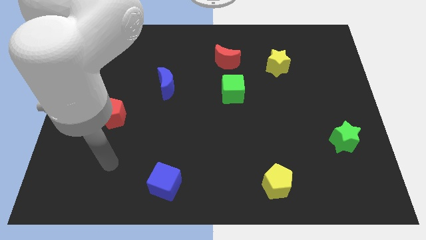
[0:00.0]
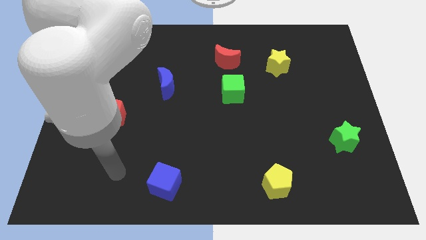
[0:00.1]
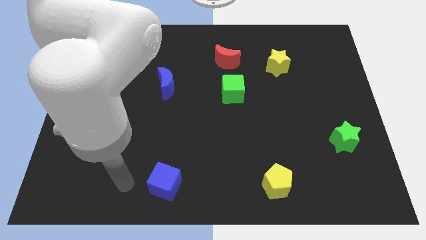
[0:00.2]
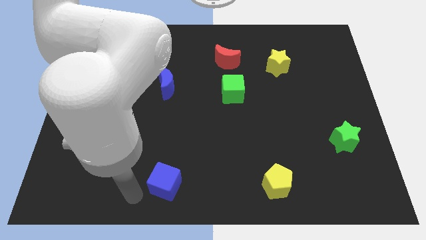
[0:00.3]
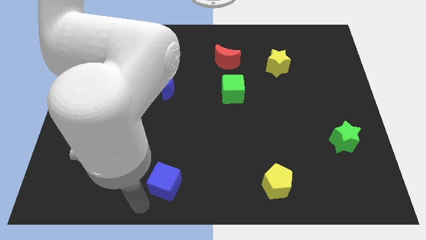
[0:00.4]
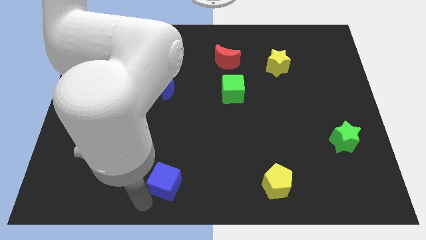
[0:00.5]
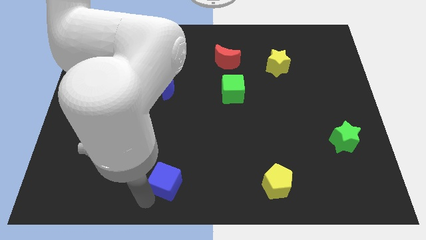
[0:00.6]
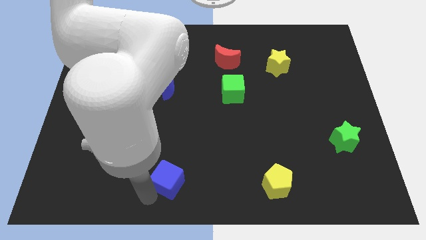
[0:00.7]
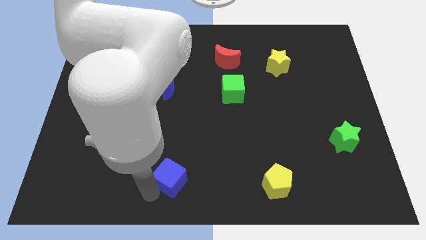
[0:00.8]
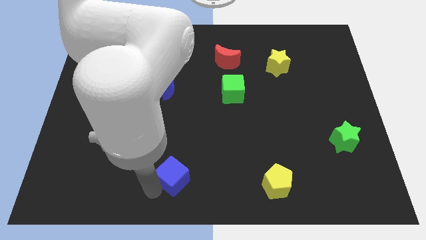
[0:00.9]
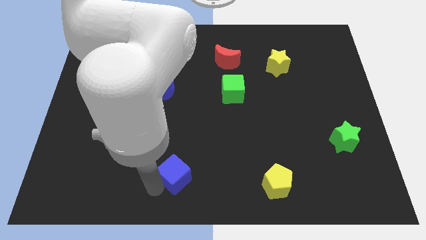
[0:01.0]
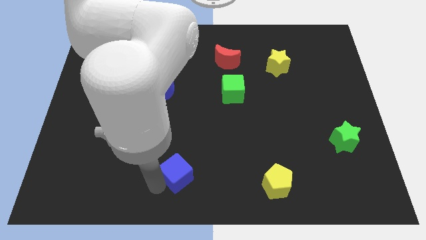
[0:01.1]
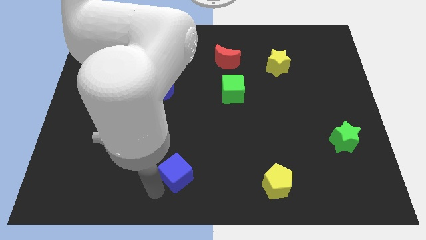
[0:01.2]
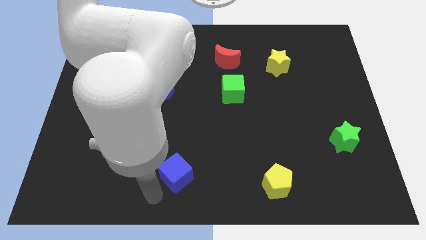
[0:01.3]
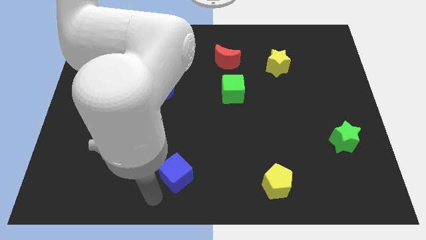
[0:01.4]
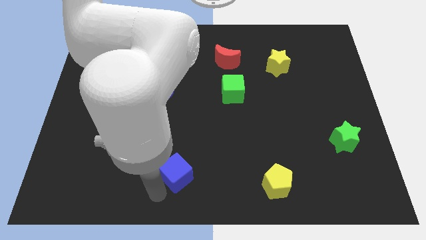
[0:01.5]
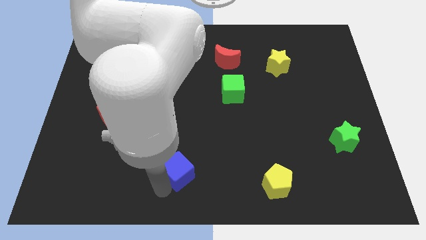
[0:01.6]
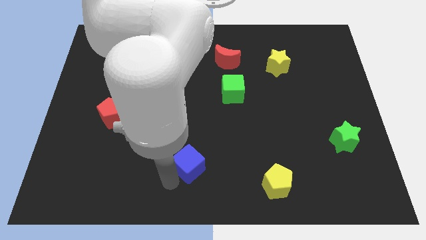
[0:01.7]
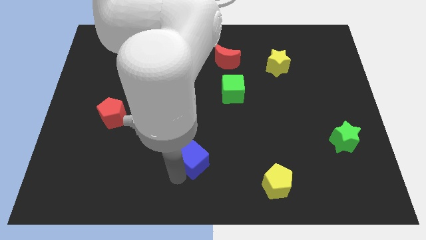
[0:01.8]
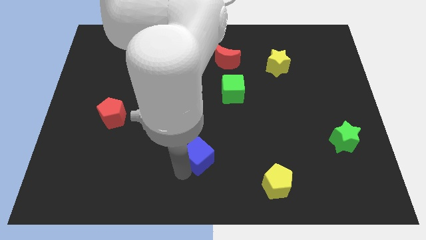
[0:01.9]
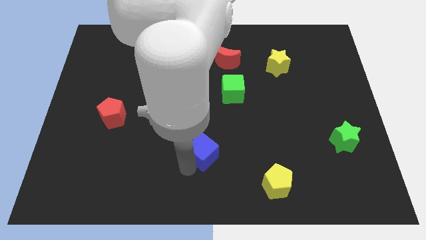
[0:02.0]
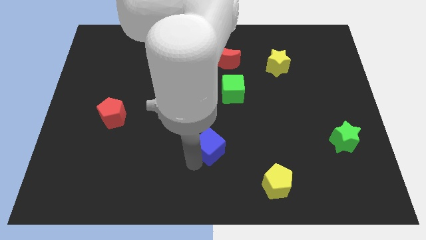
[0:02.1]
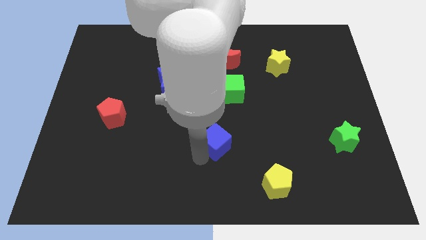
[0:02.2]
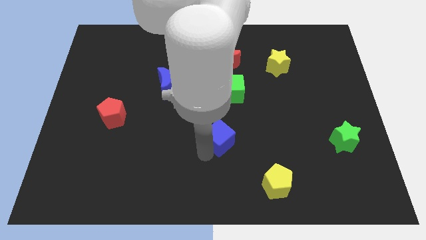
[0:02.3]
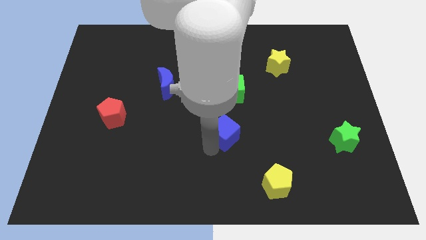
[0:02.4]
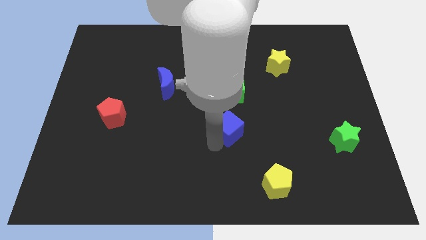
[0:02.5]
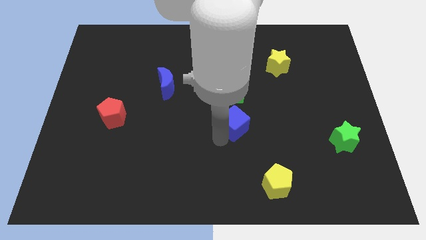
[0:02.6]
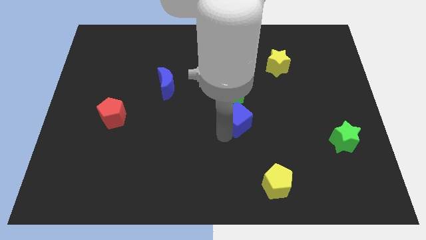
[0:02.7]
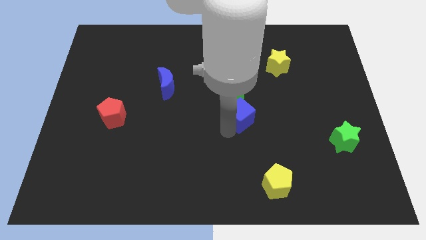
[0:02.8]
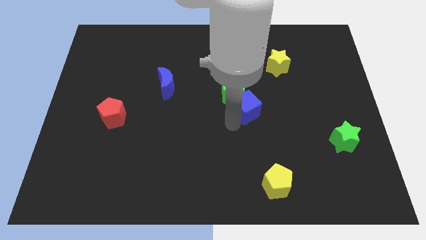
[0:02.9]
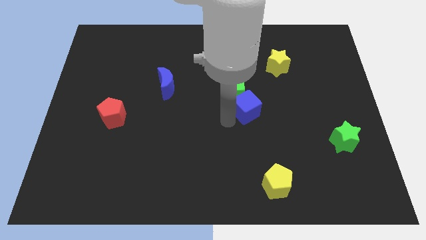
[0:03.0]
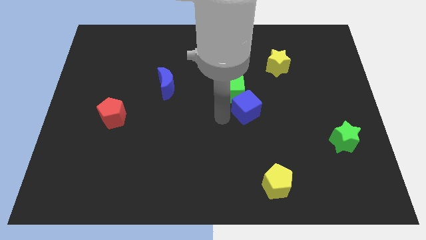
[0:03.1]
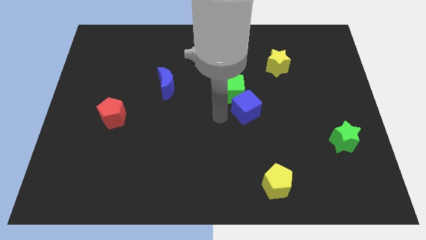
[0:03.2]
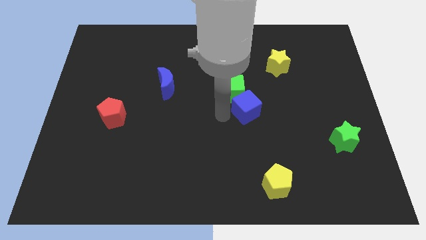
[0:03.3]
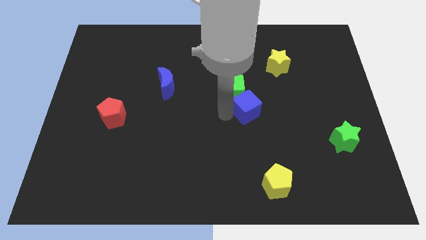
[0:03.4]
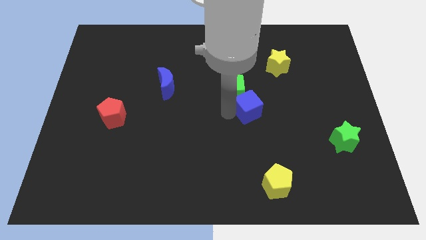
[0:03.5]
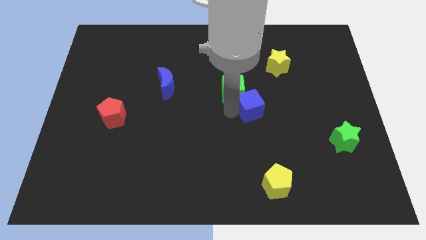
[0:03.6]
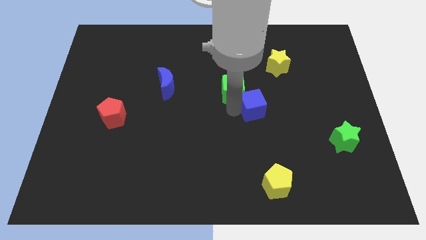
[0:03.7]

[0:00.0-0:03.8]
push the blue cube right of the green cube

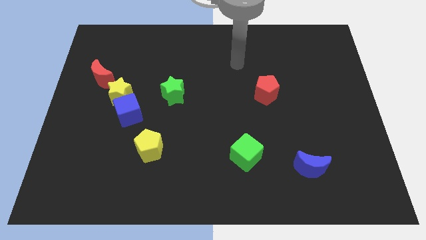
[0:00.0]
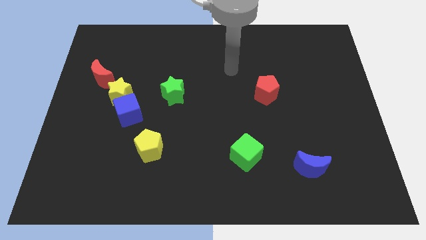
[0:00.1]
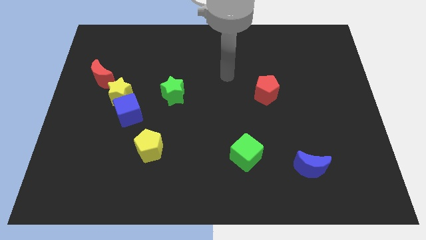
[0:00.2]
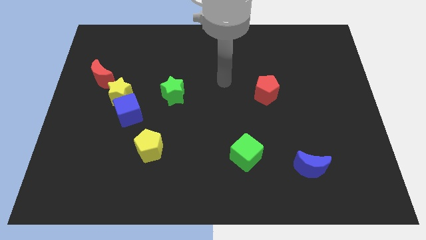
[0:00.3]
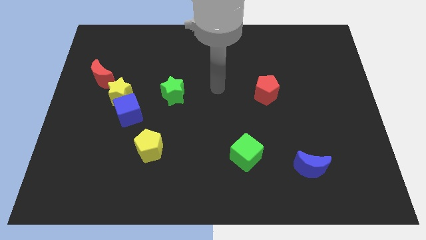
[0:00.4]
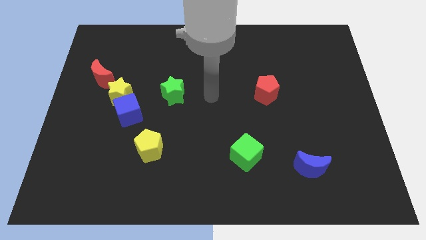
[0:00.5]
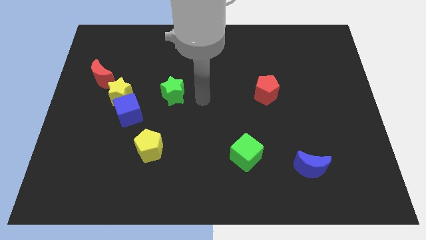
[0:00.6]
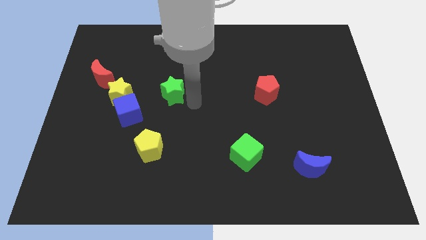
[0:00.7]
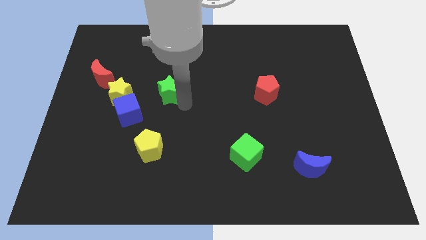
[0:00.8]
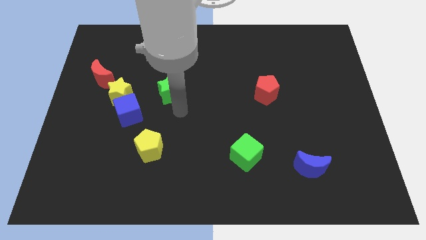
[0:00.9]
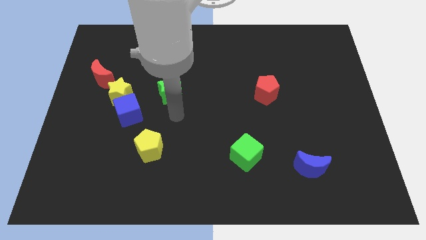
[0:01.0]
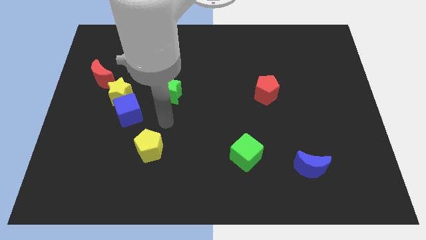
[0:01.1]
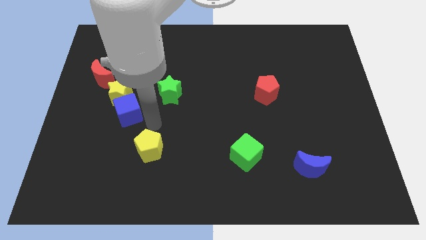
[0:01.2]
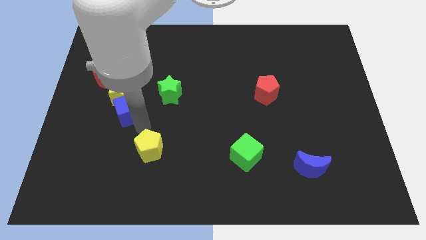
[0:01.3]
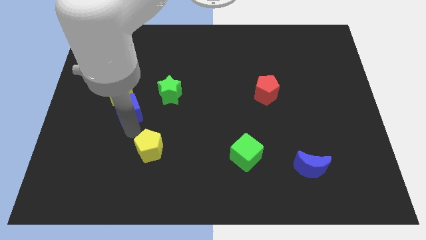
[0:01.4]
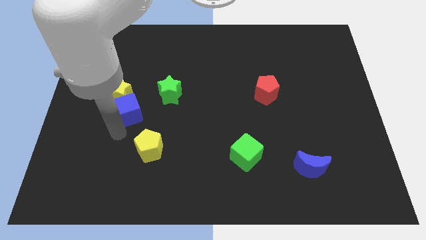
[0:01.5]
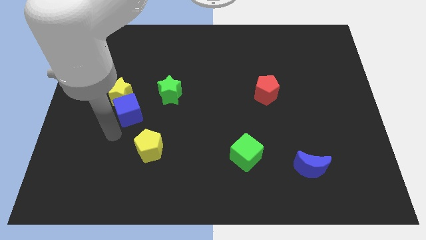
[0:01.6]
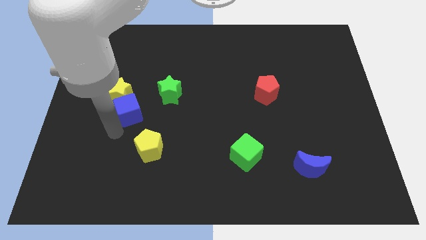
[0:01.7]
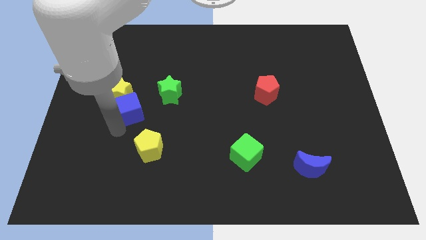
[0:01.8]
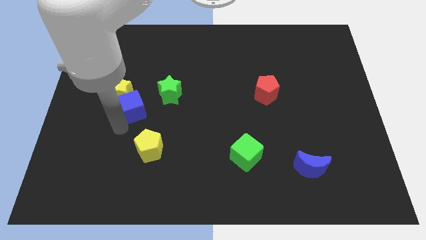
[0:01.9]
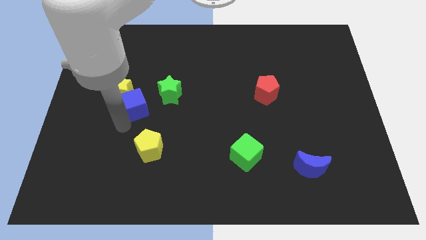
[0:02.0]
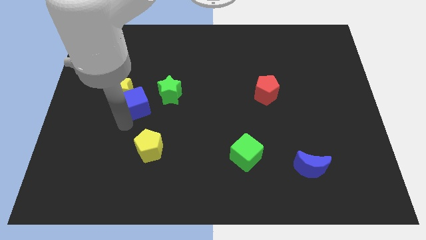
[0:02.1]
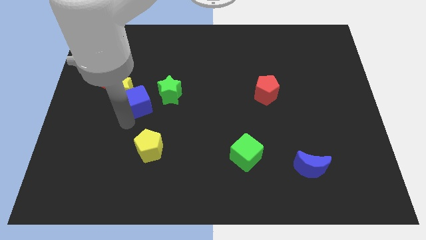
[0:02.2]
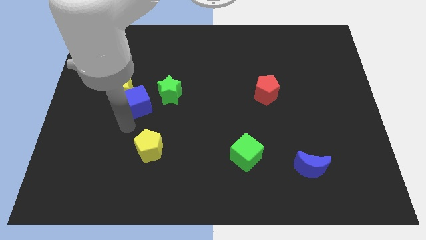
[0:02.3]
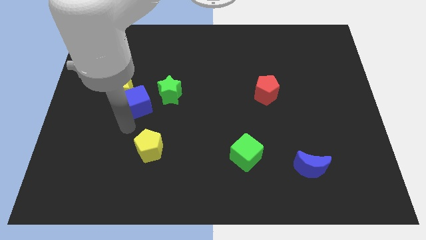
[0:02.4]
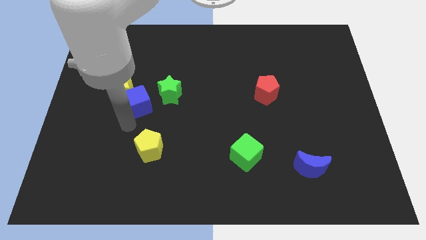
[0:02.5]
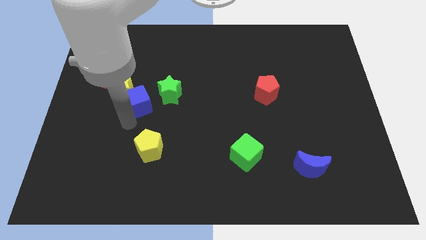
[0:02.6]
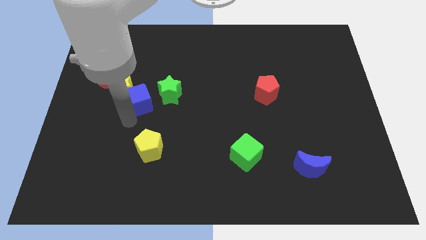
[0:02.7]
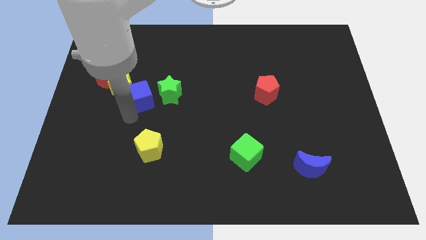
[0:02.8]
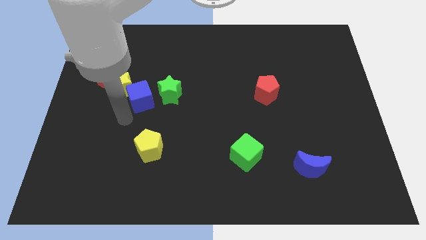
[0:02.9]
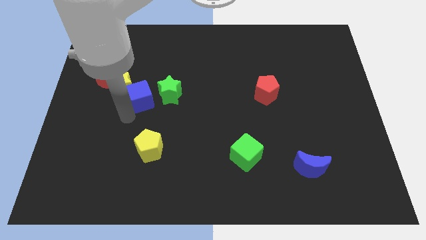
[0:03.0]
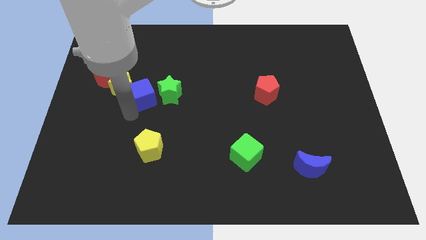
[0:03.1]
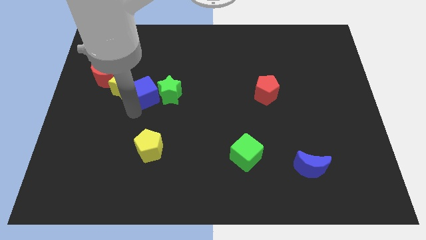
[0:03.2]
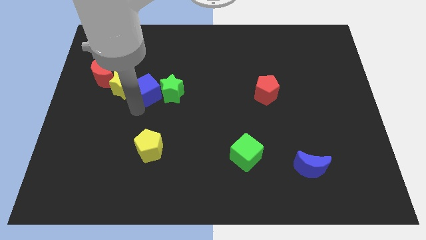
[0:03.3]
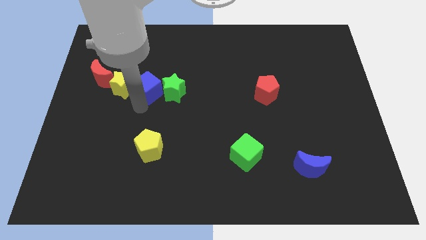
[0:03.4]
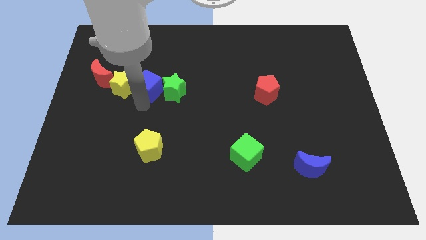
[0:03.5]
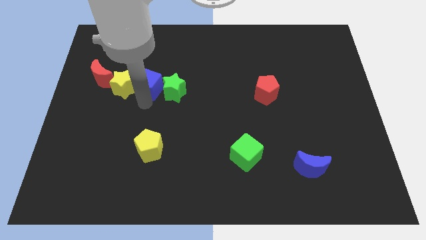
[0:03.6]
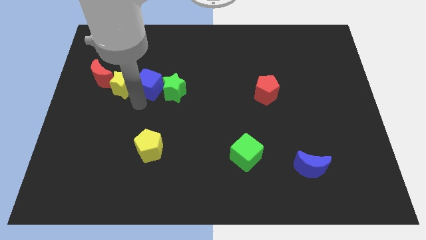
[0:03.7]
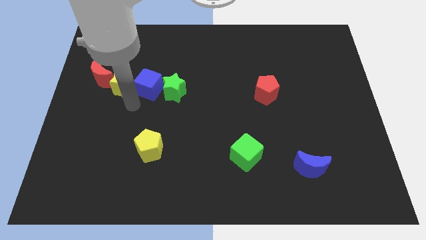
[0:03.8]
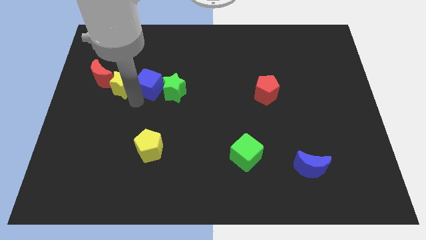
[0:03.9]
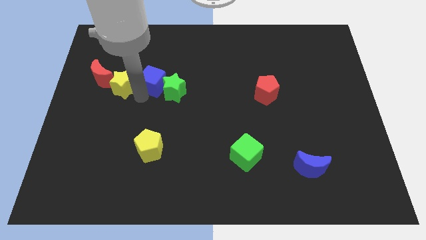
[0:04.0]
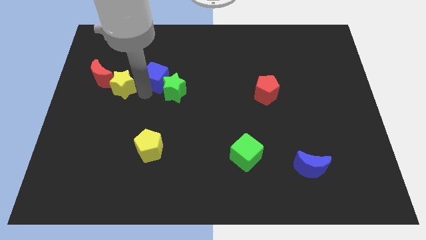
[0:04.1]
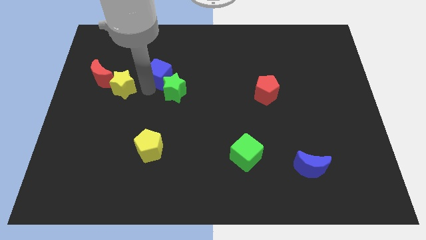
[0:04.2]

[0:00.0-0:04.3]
push the blue cube above the green star
